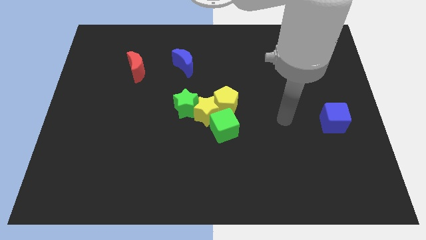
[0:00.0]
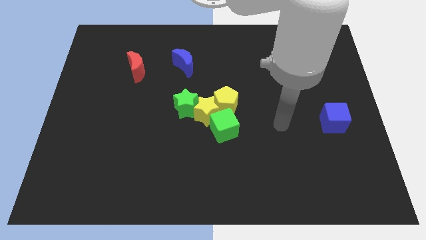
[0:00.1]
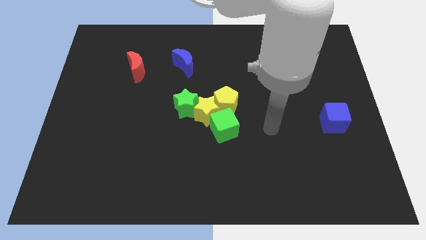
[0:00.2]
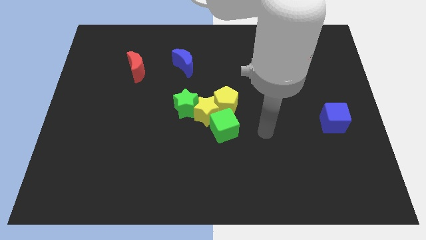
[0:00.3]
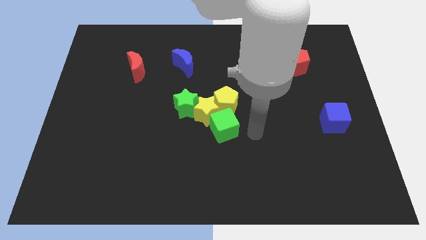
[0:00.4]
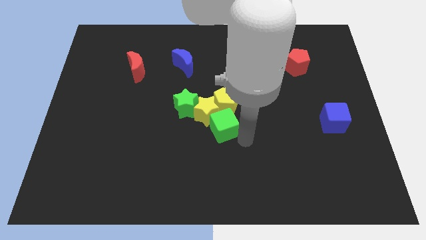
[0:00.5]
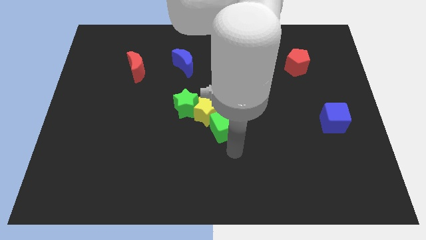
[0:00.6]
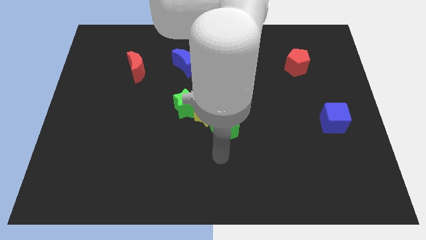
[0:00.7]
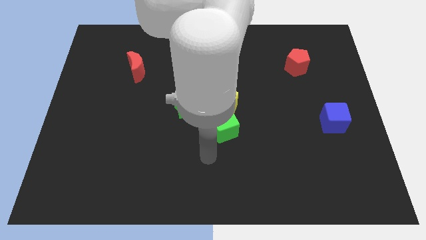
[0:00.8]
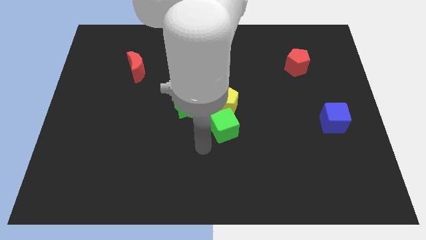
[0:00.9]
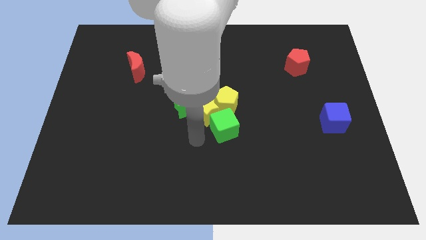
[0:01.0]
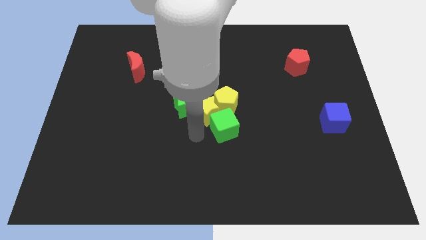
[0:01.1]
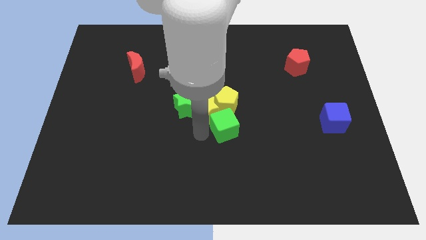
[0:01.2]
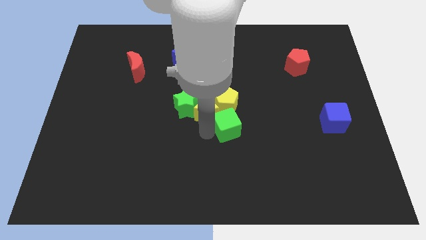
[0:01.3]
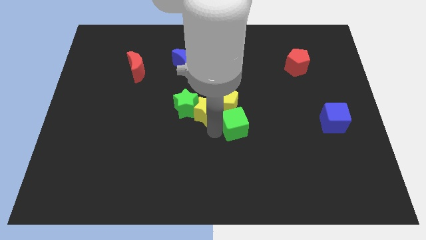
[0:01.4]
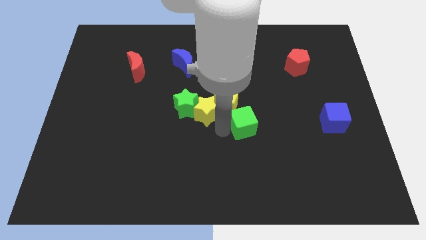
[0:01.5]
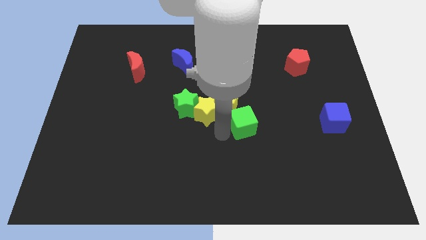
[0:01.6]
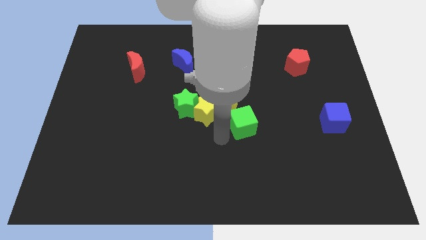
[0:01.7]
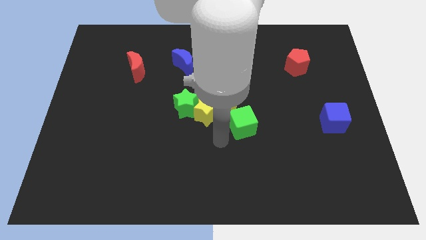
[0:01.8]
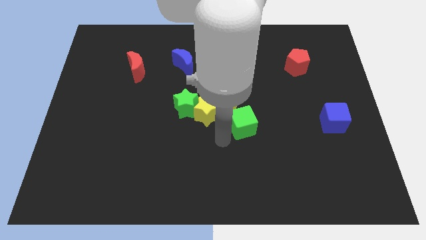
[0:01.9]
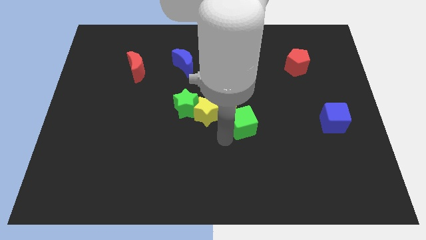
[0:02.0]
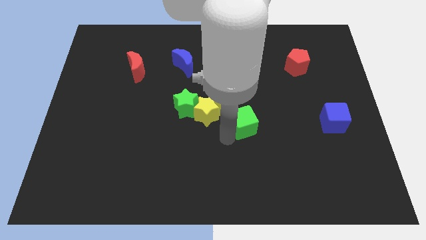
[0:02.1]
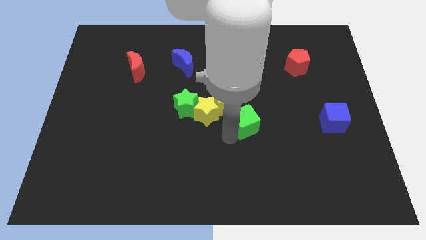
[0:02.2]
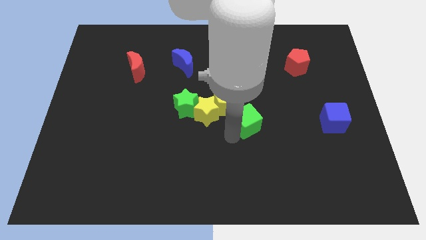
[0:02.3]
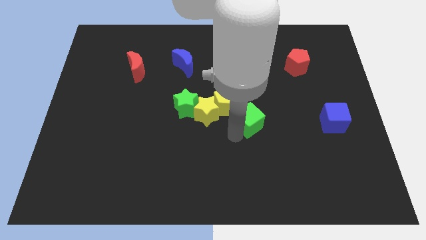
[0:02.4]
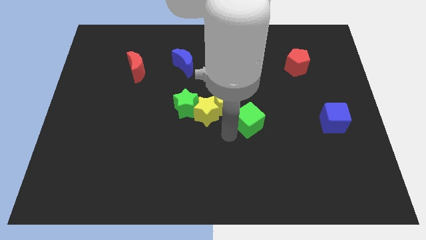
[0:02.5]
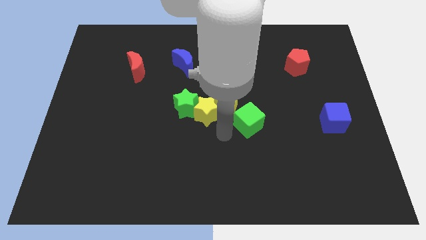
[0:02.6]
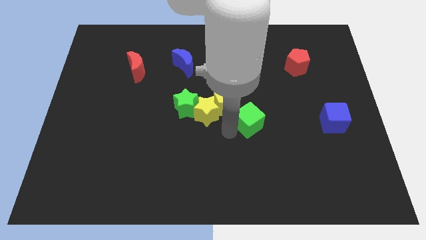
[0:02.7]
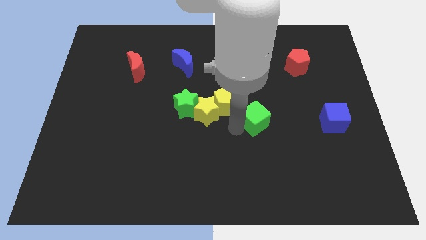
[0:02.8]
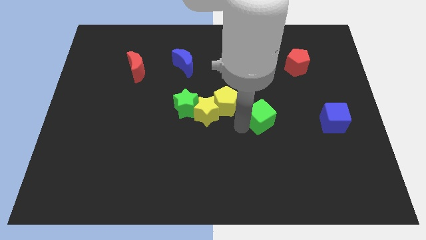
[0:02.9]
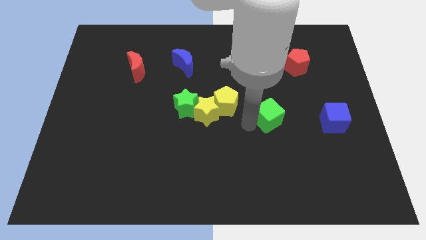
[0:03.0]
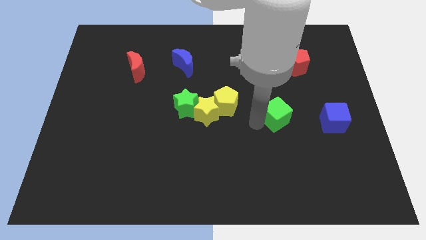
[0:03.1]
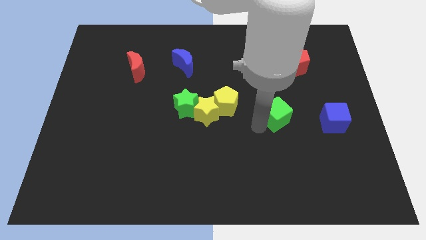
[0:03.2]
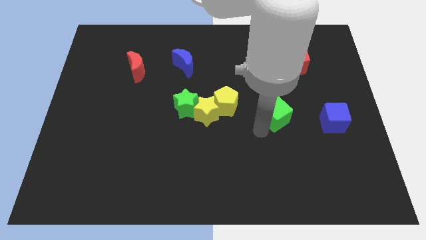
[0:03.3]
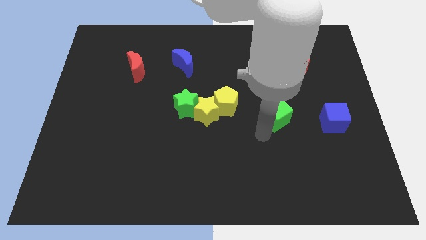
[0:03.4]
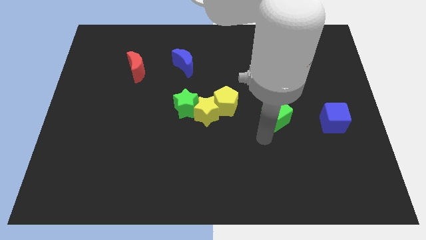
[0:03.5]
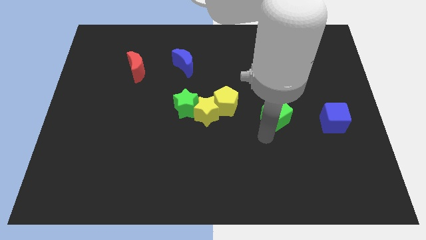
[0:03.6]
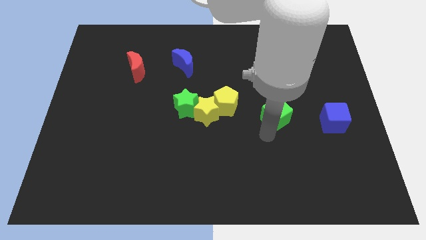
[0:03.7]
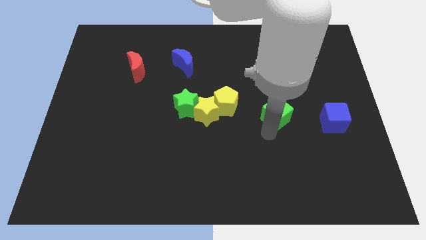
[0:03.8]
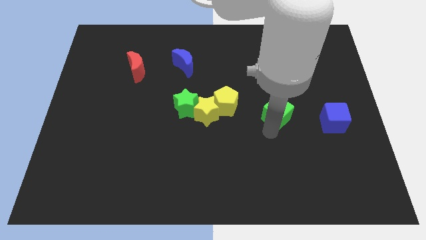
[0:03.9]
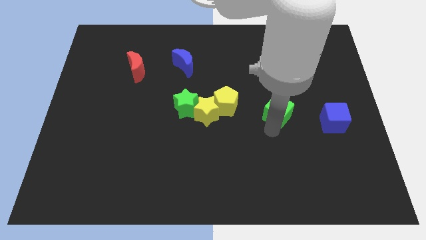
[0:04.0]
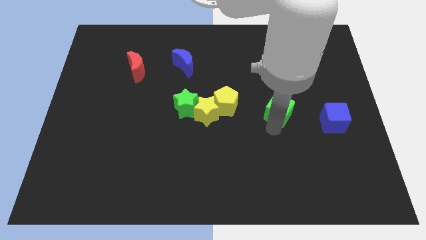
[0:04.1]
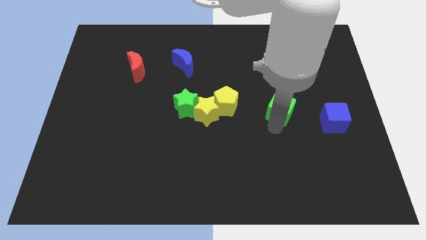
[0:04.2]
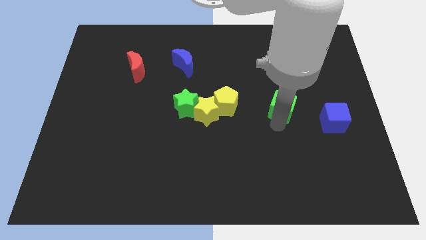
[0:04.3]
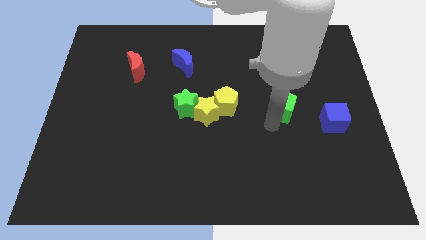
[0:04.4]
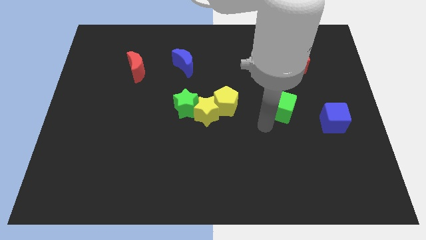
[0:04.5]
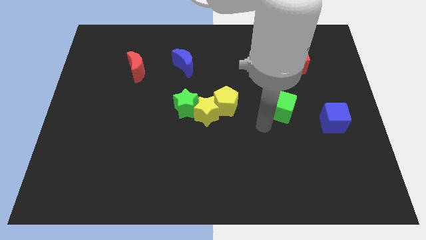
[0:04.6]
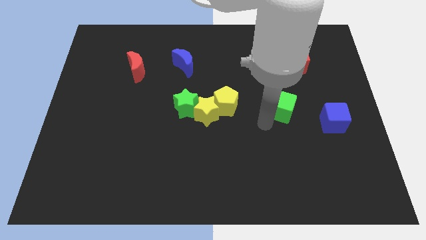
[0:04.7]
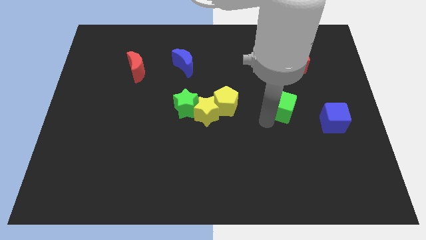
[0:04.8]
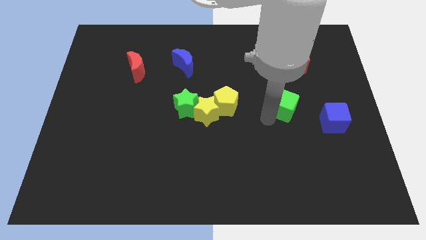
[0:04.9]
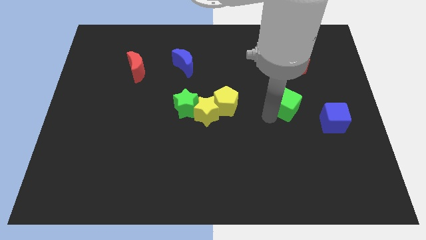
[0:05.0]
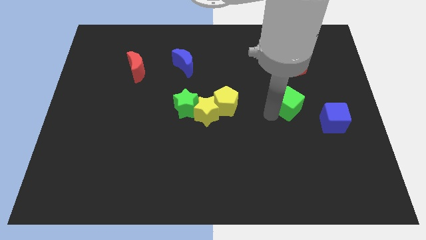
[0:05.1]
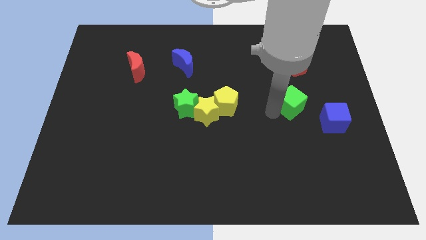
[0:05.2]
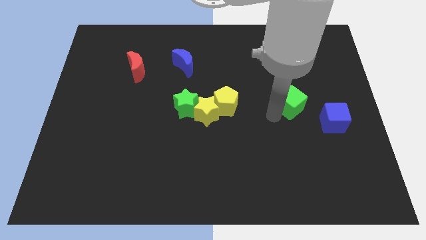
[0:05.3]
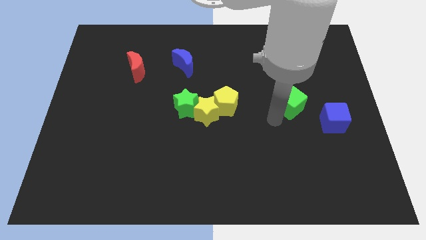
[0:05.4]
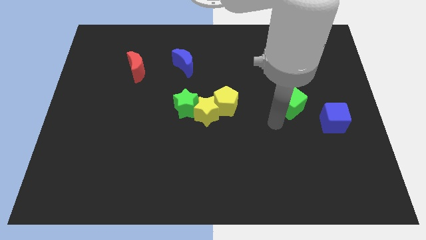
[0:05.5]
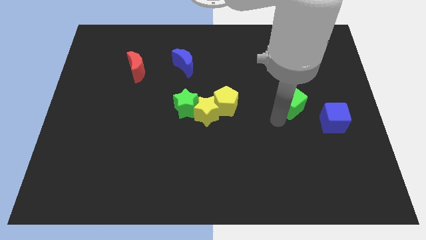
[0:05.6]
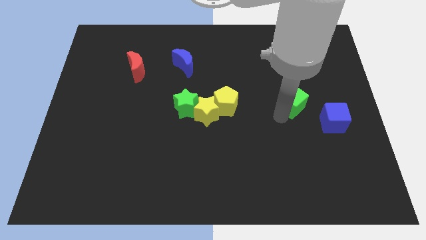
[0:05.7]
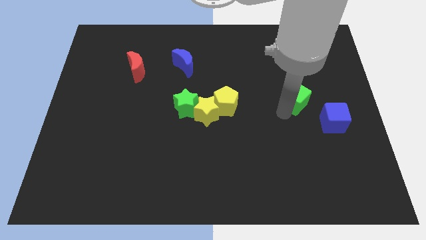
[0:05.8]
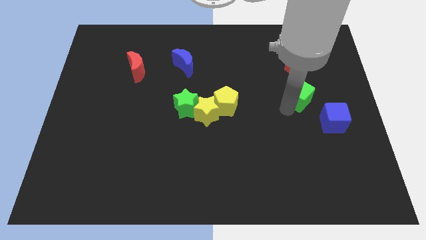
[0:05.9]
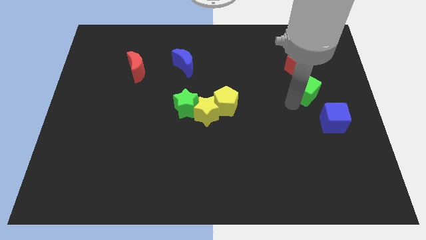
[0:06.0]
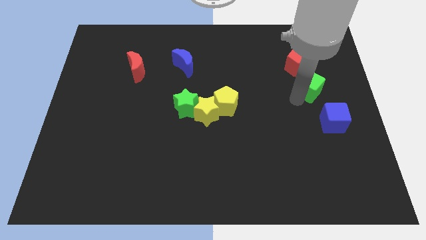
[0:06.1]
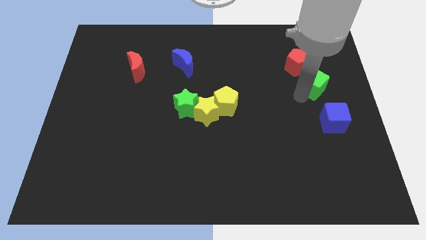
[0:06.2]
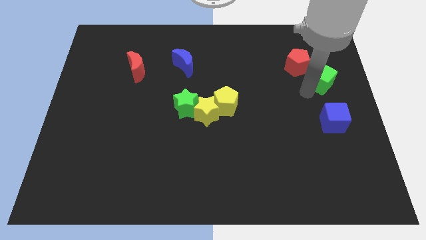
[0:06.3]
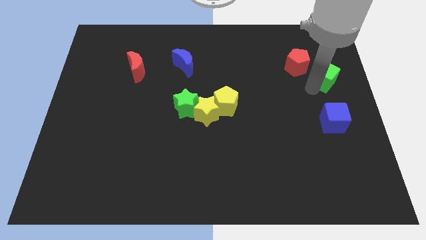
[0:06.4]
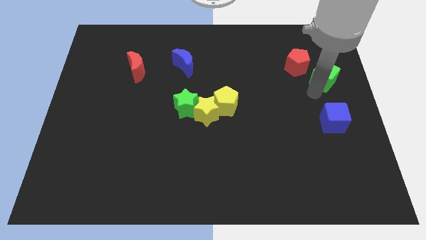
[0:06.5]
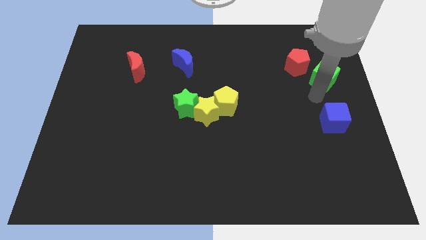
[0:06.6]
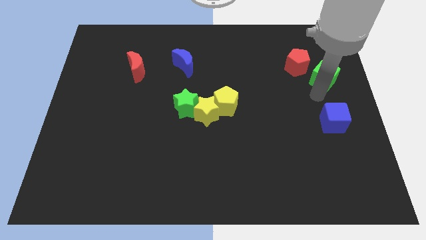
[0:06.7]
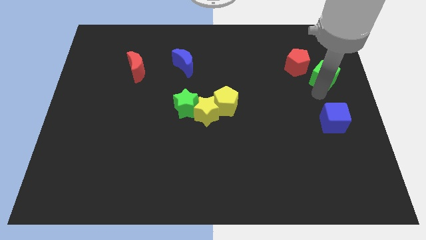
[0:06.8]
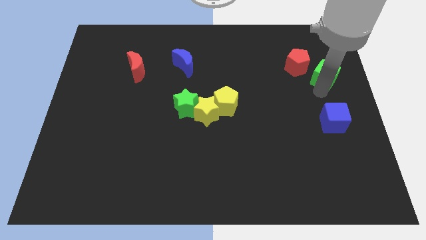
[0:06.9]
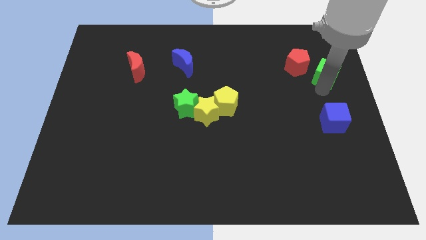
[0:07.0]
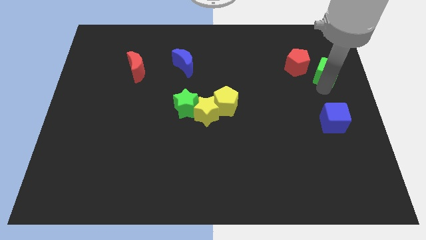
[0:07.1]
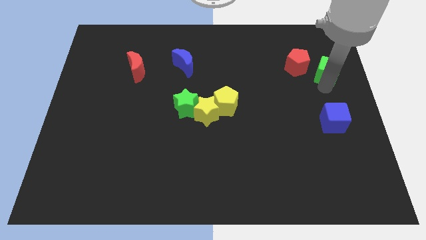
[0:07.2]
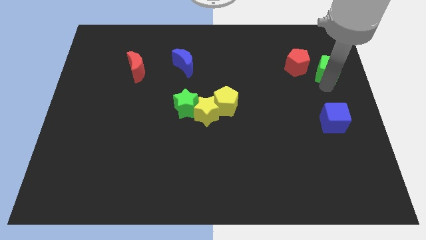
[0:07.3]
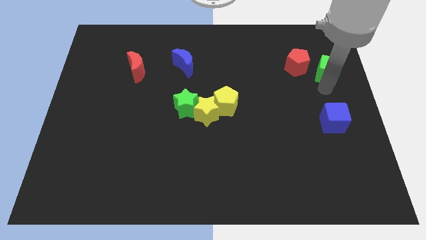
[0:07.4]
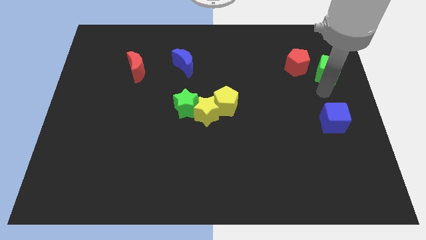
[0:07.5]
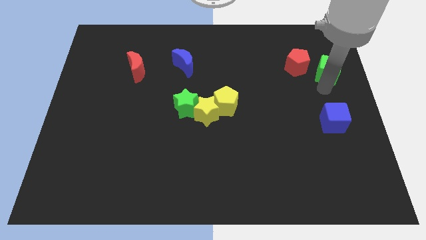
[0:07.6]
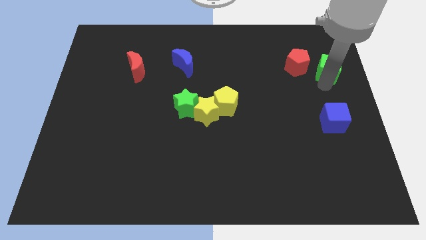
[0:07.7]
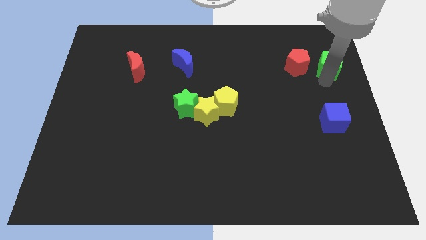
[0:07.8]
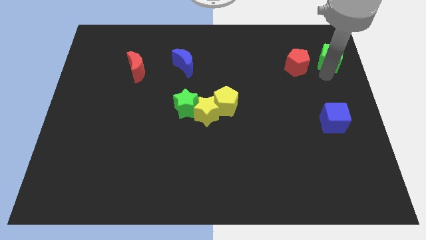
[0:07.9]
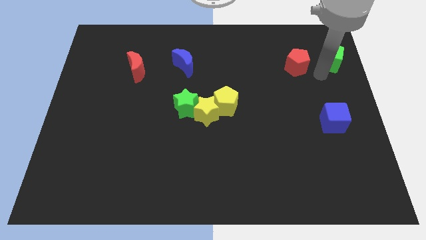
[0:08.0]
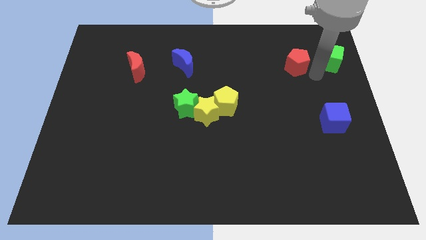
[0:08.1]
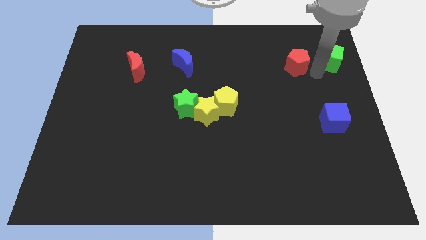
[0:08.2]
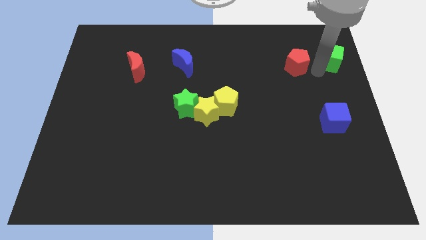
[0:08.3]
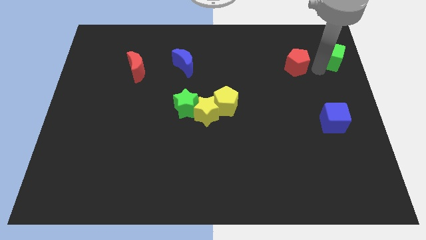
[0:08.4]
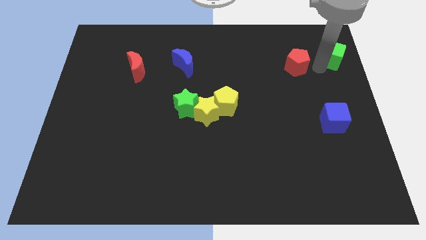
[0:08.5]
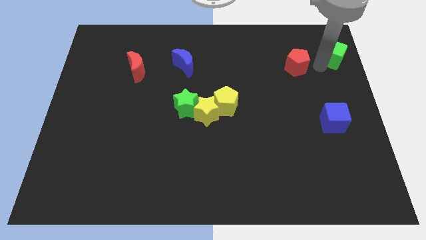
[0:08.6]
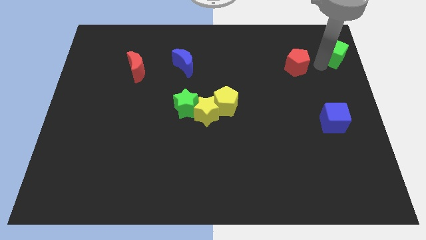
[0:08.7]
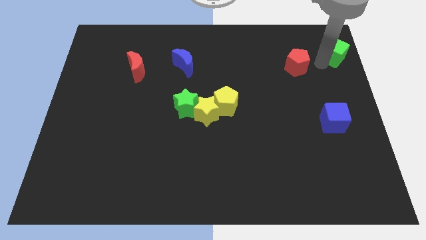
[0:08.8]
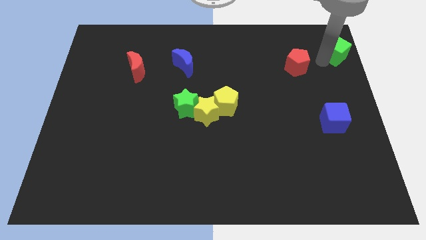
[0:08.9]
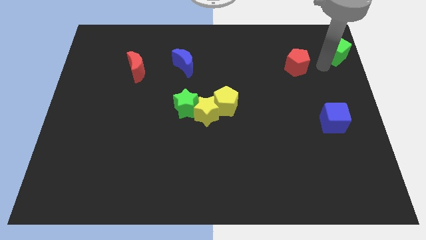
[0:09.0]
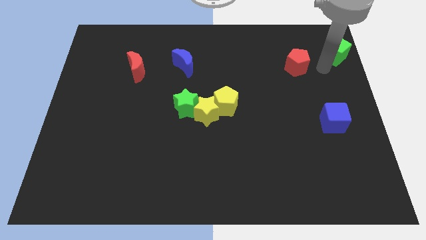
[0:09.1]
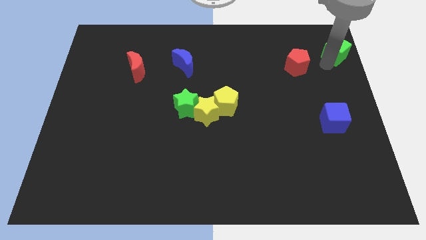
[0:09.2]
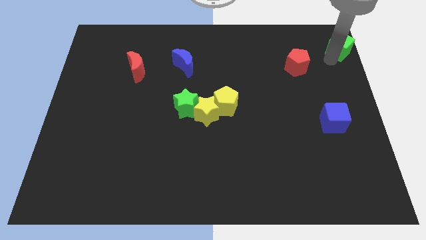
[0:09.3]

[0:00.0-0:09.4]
slide the green cube to the top right of the board
